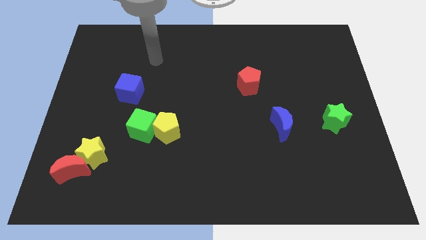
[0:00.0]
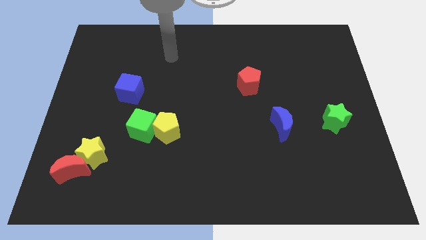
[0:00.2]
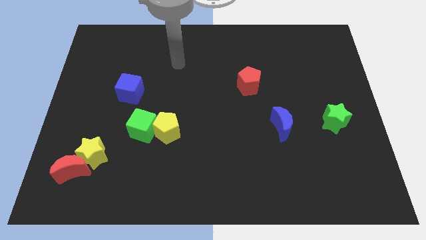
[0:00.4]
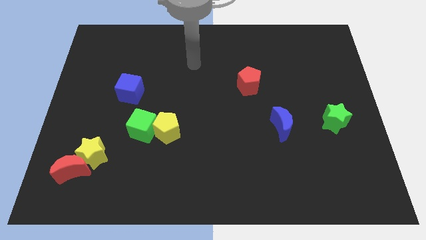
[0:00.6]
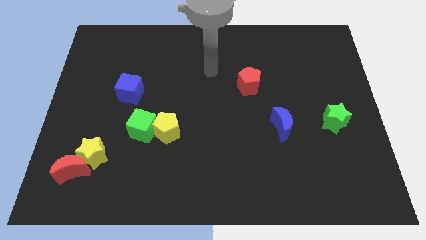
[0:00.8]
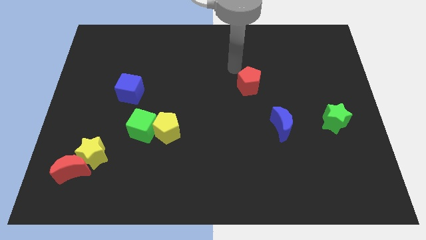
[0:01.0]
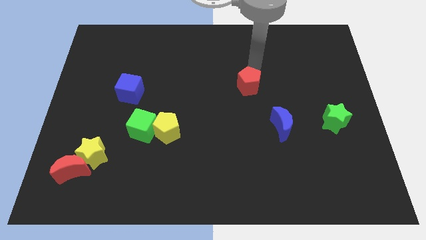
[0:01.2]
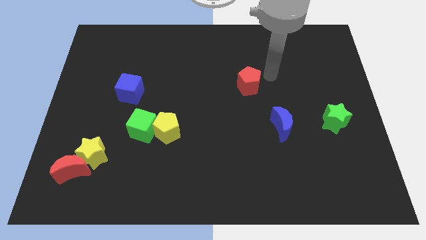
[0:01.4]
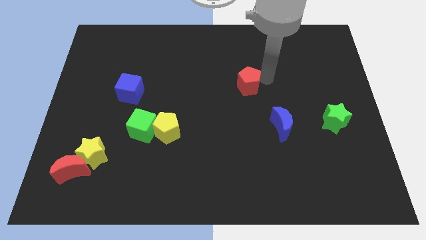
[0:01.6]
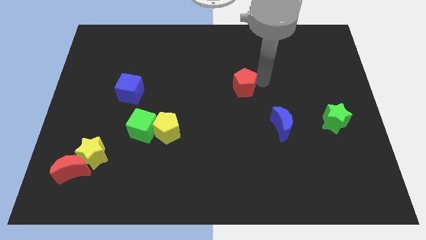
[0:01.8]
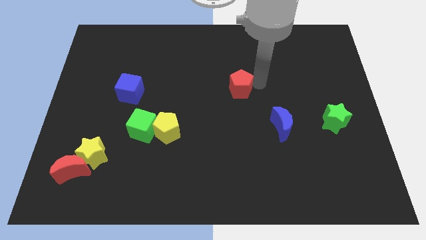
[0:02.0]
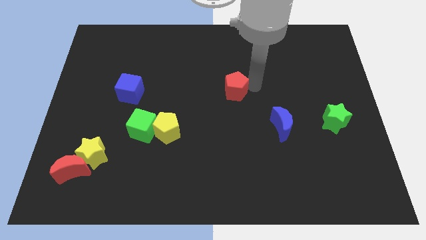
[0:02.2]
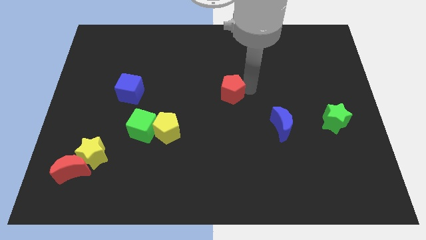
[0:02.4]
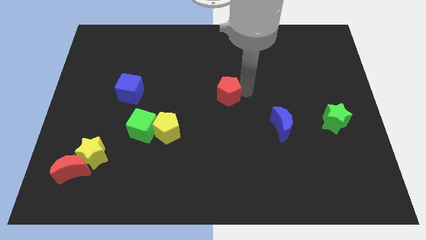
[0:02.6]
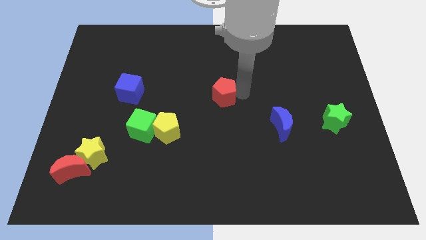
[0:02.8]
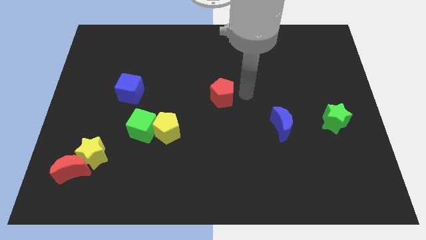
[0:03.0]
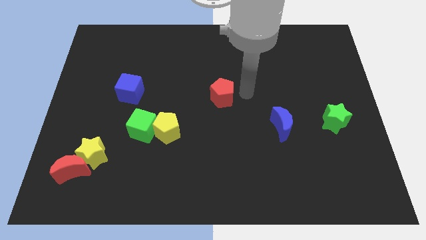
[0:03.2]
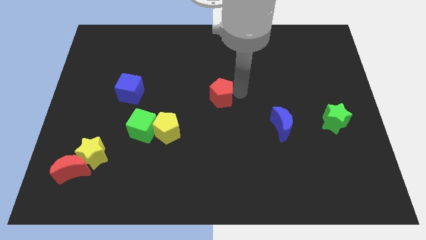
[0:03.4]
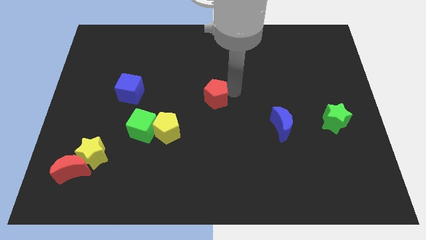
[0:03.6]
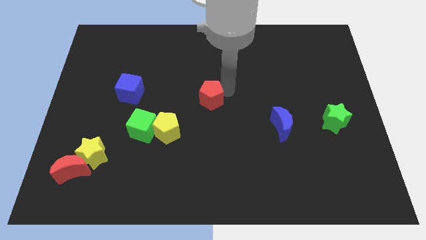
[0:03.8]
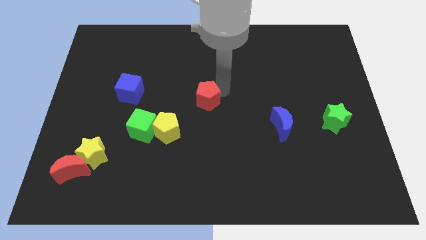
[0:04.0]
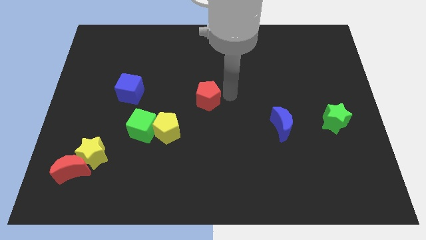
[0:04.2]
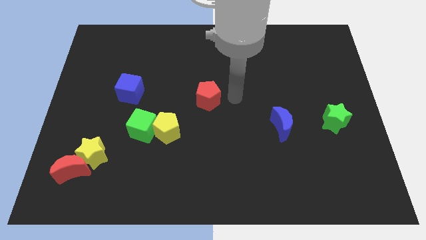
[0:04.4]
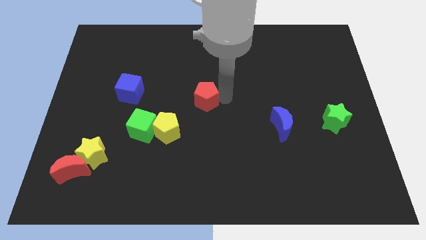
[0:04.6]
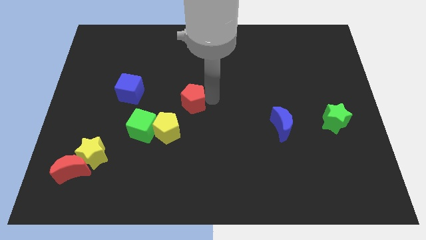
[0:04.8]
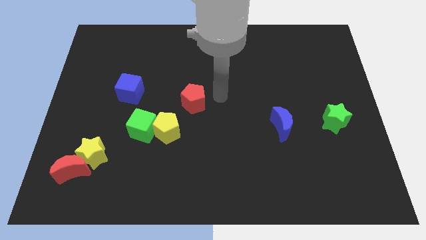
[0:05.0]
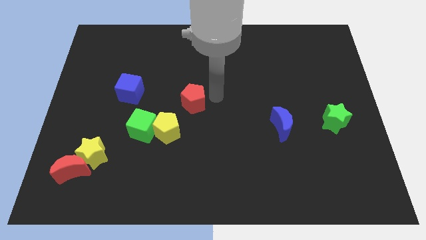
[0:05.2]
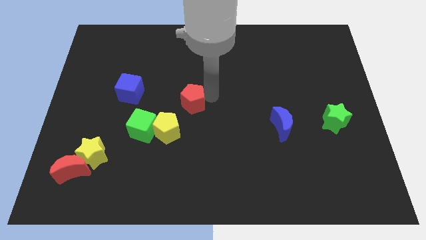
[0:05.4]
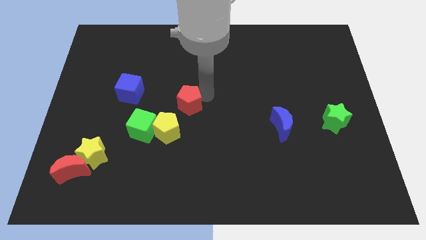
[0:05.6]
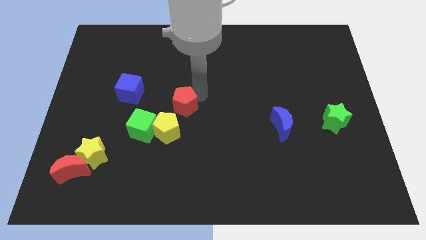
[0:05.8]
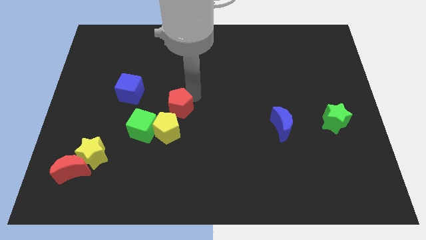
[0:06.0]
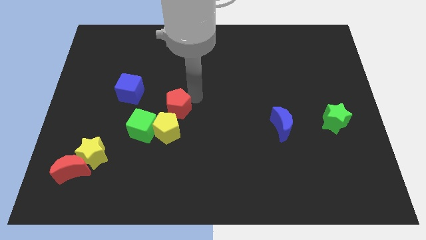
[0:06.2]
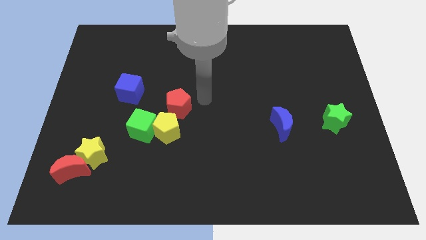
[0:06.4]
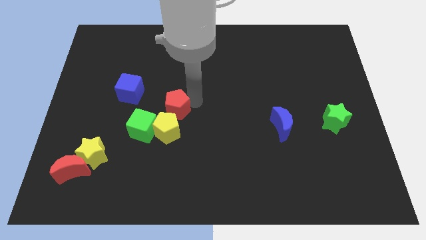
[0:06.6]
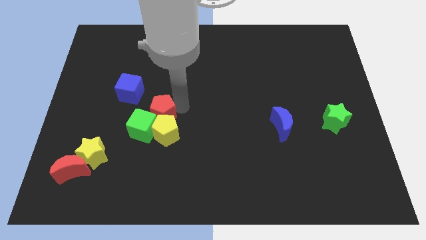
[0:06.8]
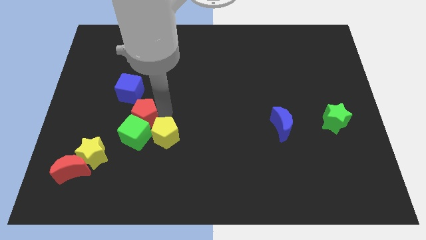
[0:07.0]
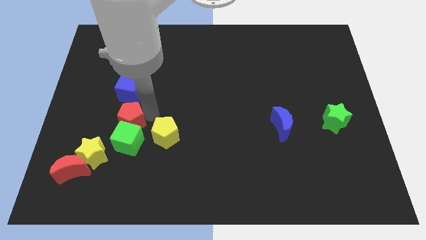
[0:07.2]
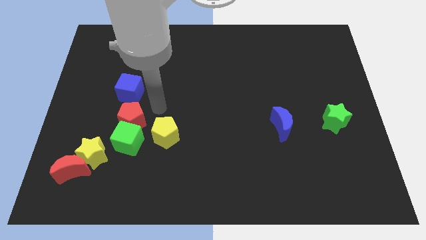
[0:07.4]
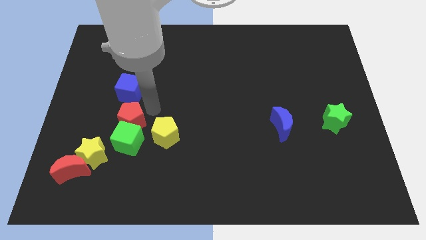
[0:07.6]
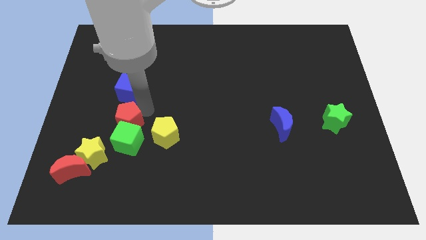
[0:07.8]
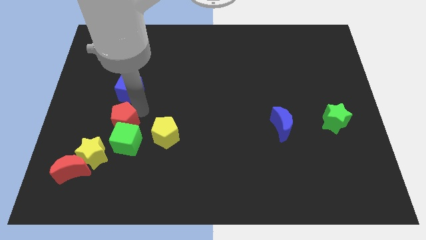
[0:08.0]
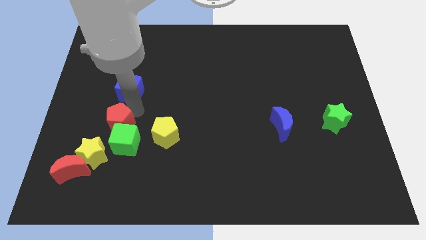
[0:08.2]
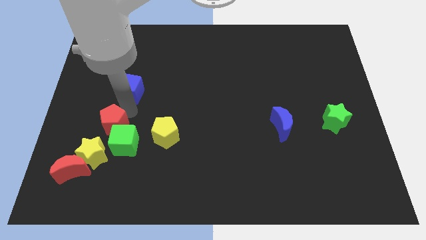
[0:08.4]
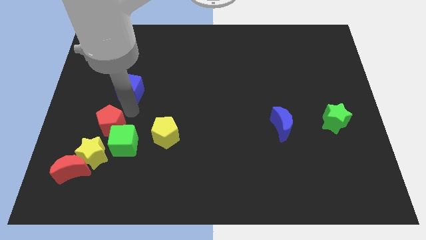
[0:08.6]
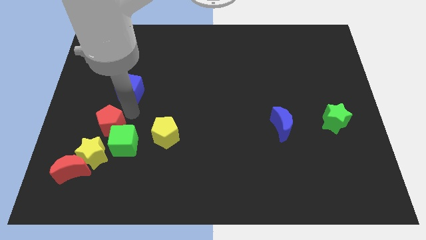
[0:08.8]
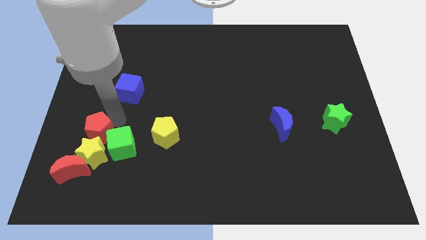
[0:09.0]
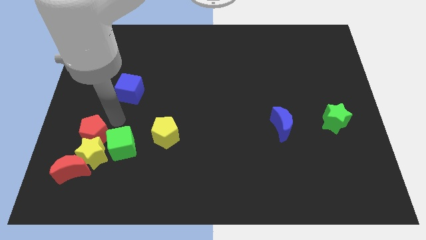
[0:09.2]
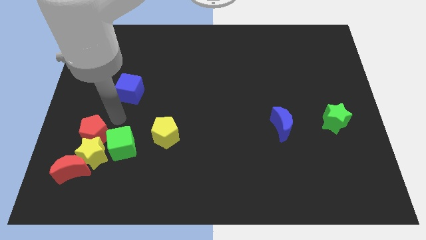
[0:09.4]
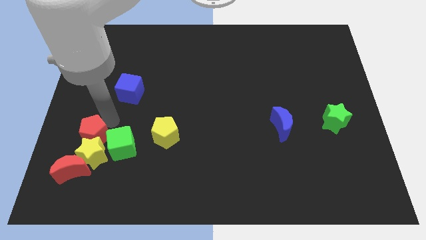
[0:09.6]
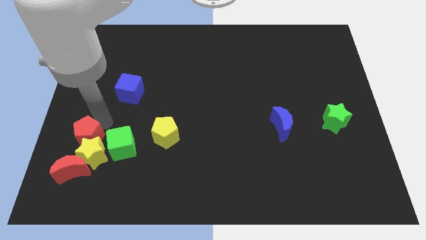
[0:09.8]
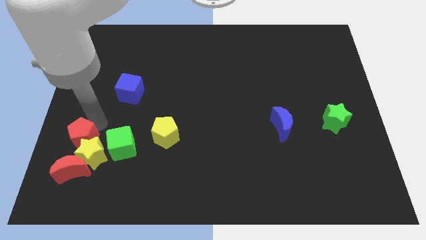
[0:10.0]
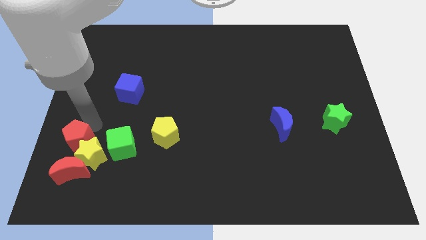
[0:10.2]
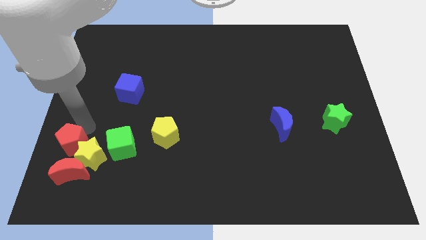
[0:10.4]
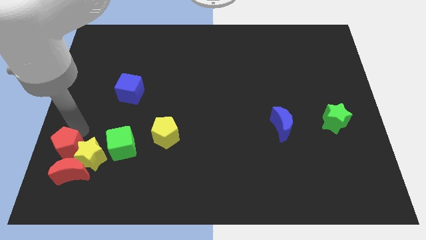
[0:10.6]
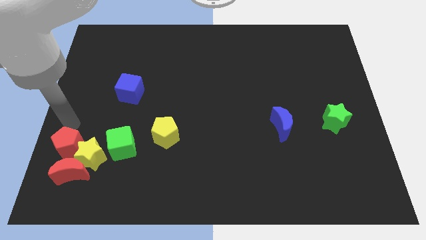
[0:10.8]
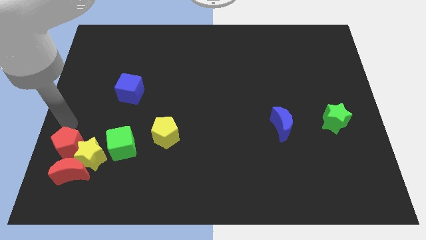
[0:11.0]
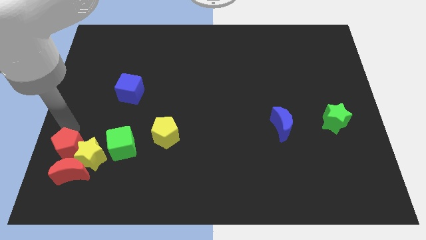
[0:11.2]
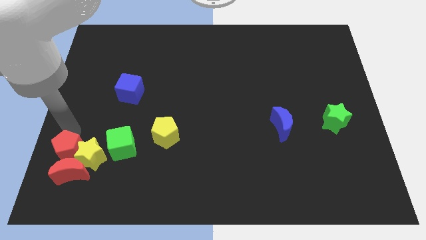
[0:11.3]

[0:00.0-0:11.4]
put the red pentagon towards the red moon

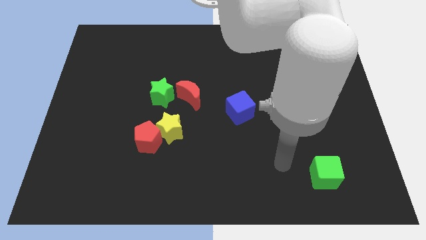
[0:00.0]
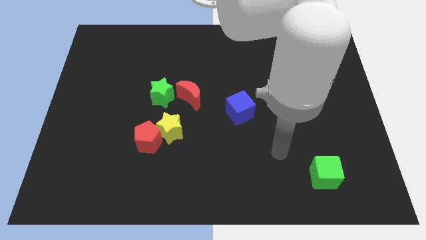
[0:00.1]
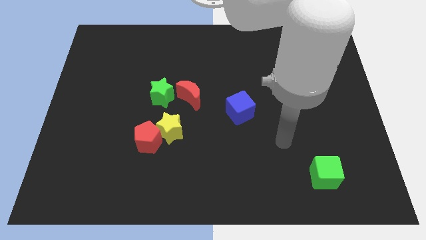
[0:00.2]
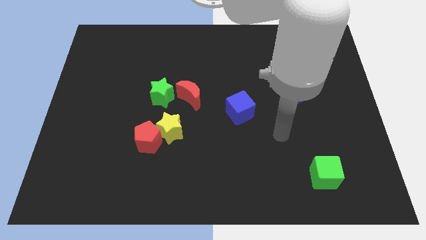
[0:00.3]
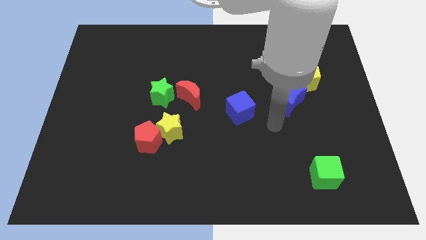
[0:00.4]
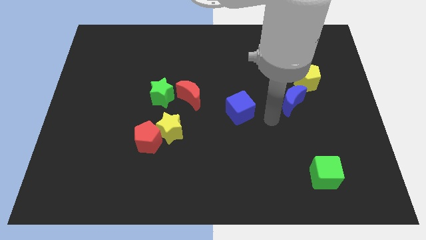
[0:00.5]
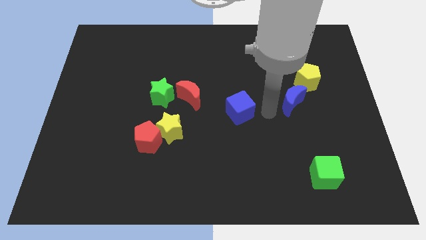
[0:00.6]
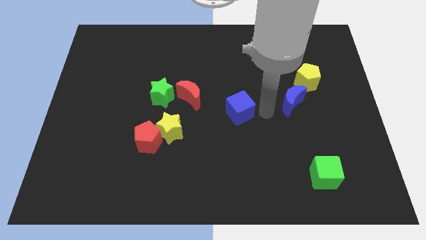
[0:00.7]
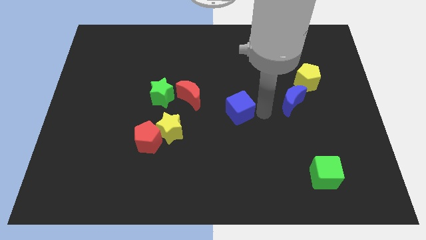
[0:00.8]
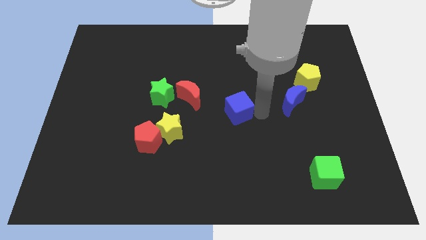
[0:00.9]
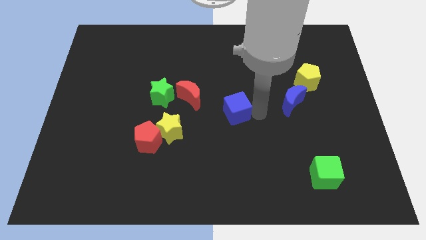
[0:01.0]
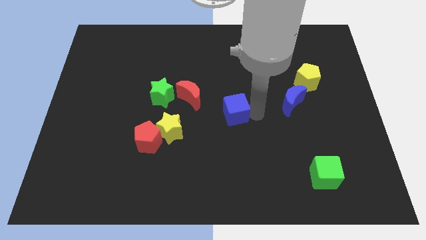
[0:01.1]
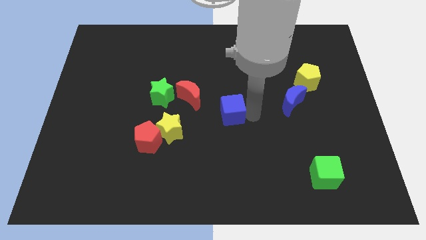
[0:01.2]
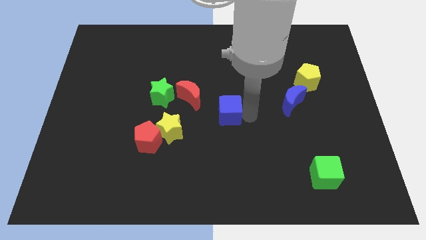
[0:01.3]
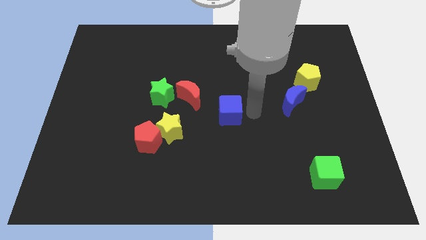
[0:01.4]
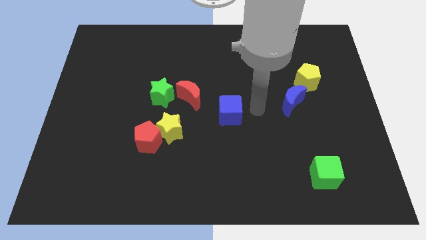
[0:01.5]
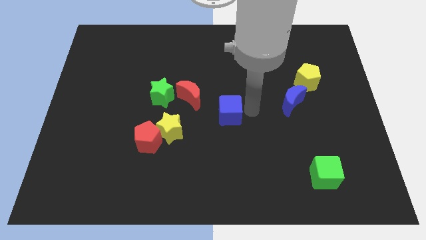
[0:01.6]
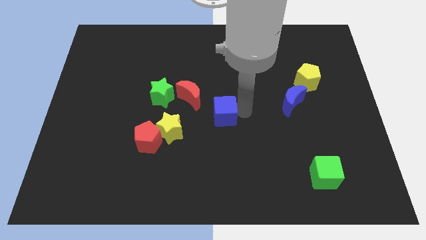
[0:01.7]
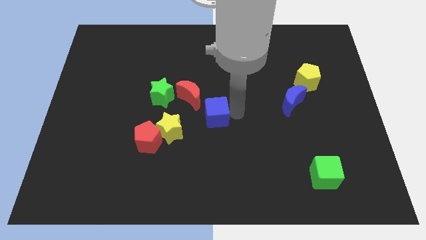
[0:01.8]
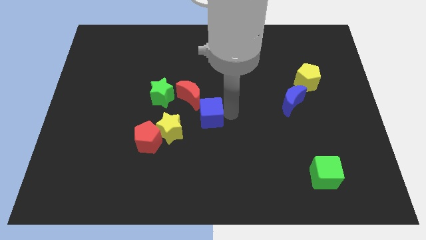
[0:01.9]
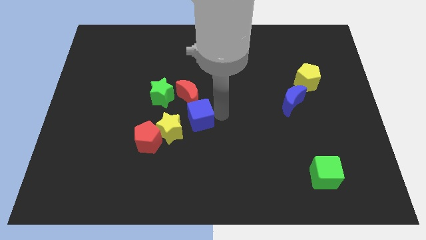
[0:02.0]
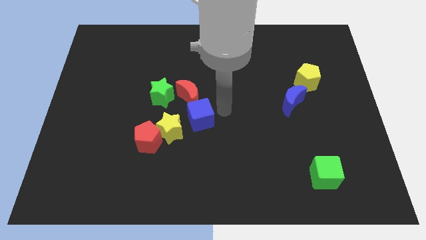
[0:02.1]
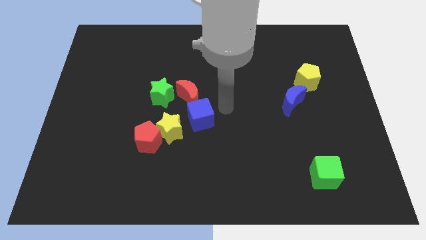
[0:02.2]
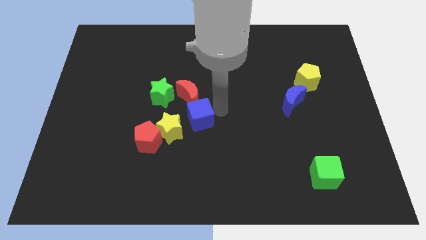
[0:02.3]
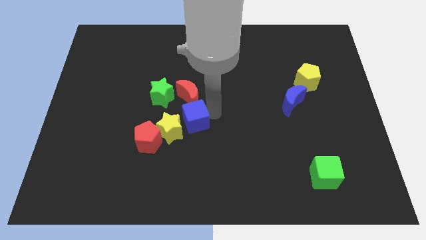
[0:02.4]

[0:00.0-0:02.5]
move the blue cube next to the yellow star
